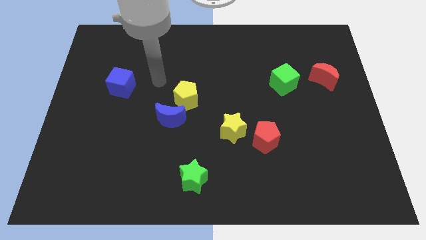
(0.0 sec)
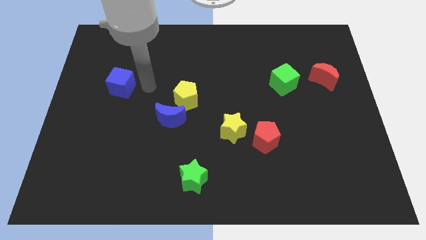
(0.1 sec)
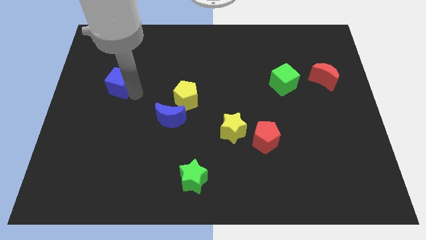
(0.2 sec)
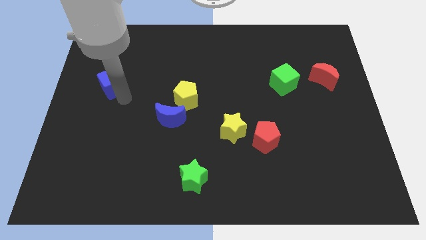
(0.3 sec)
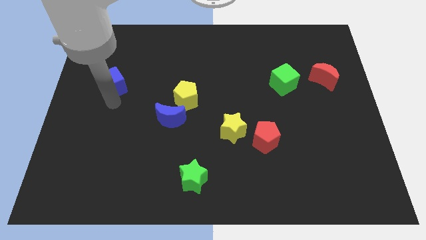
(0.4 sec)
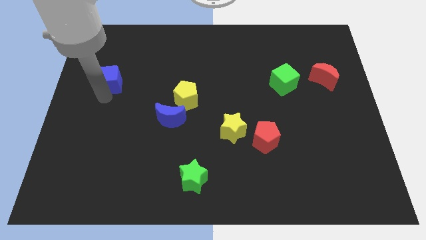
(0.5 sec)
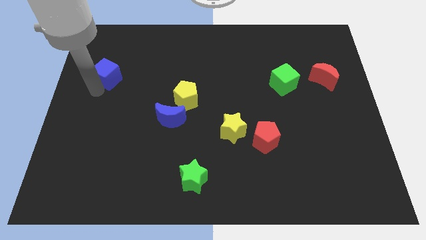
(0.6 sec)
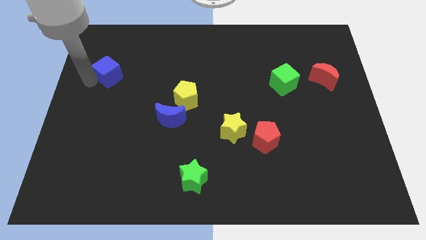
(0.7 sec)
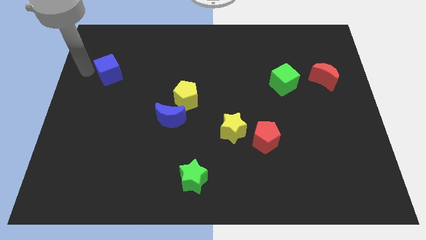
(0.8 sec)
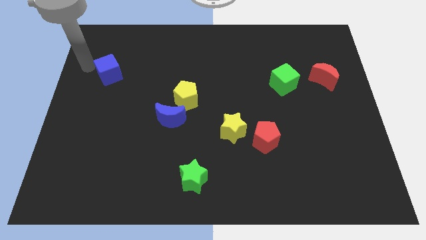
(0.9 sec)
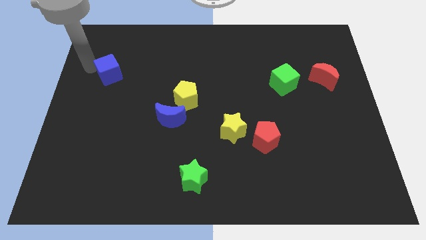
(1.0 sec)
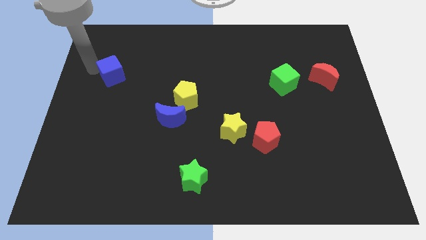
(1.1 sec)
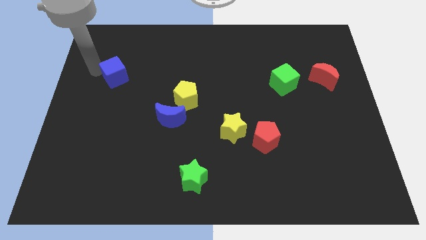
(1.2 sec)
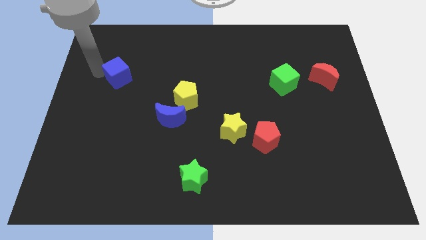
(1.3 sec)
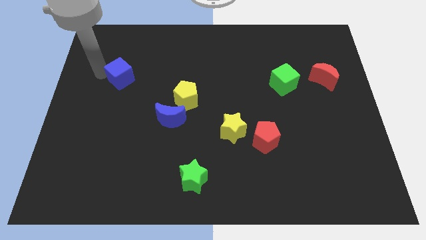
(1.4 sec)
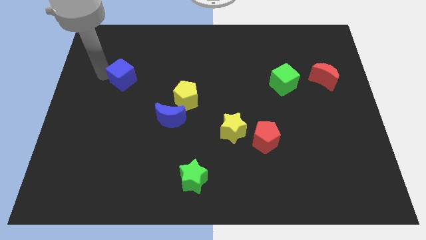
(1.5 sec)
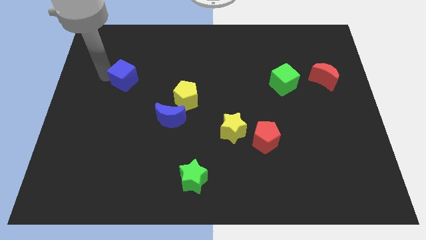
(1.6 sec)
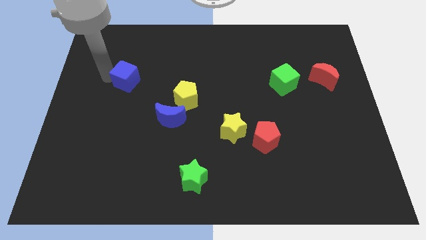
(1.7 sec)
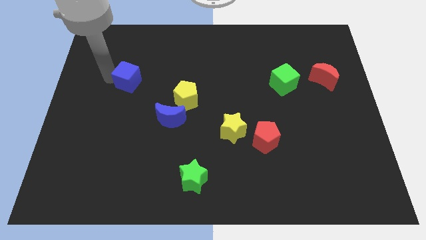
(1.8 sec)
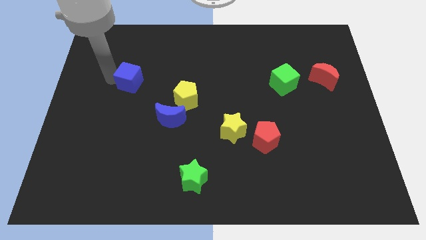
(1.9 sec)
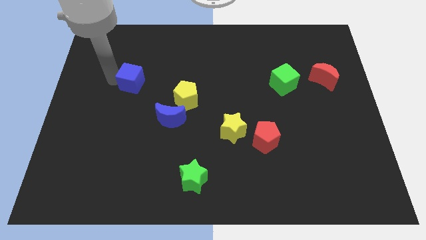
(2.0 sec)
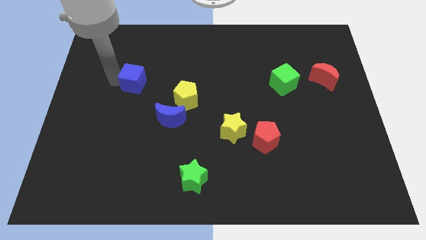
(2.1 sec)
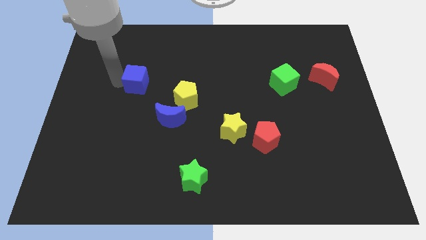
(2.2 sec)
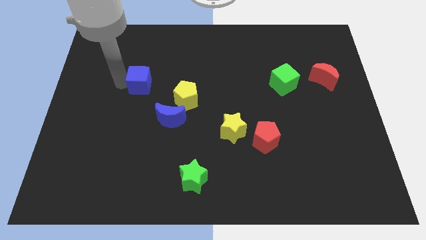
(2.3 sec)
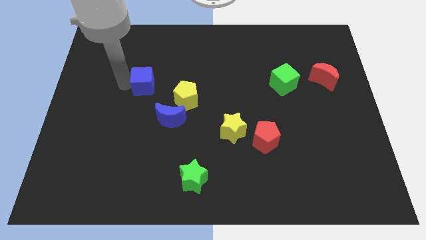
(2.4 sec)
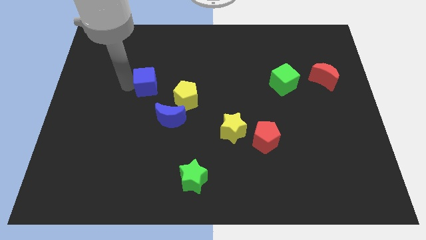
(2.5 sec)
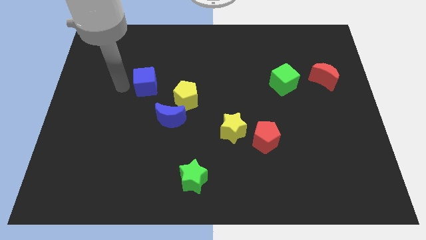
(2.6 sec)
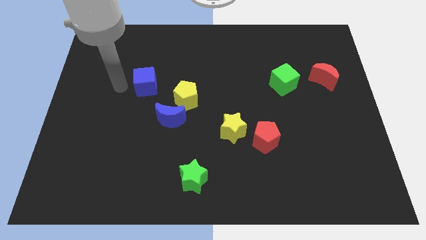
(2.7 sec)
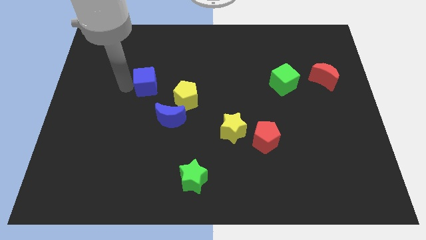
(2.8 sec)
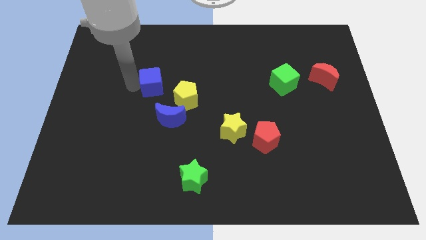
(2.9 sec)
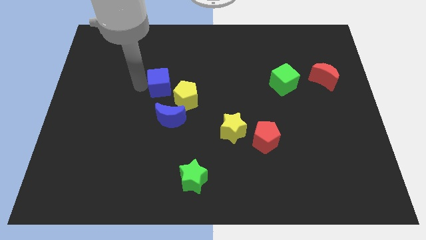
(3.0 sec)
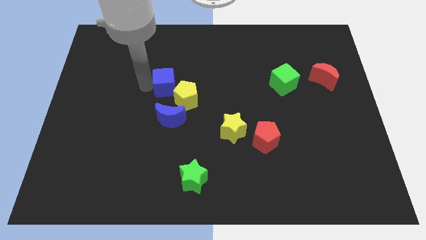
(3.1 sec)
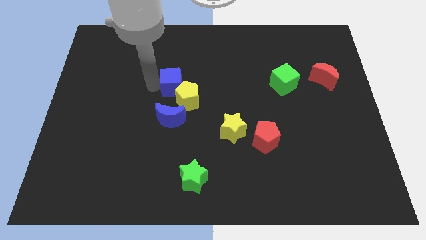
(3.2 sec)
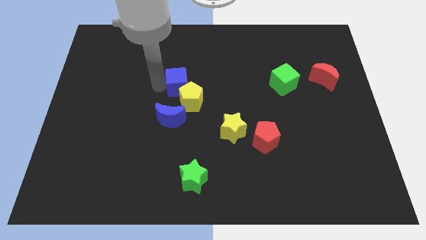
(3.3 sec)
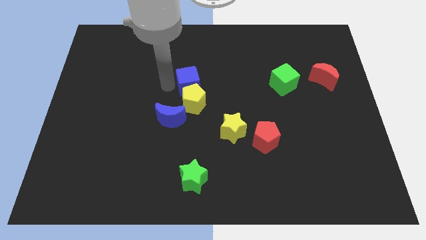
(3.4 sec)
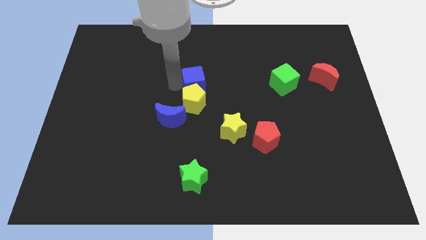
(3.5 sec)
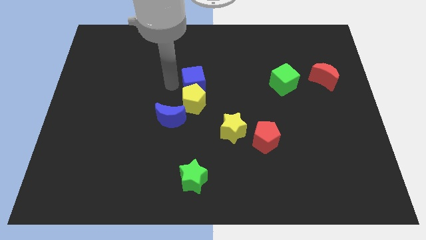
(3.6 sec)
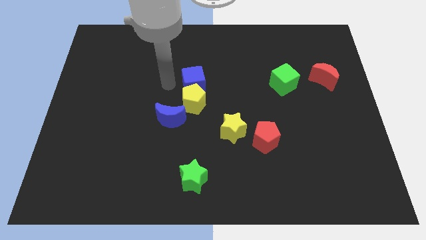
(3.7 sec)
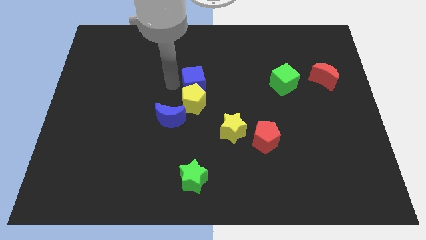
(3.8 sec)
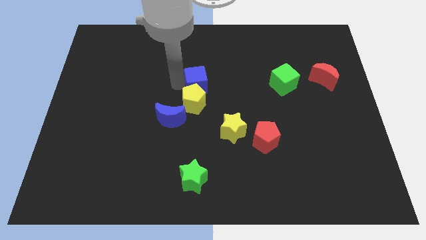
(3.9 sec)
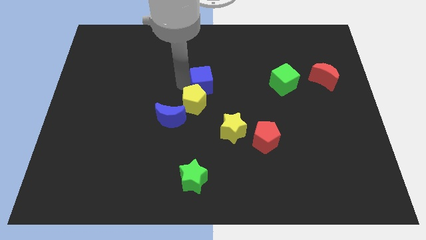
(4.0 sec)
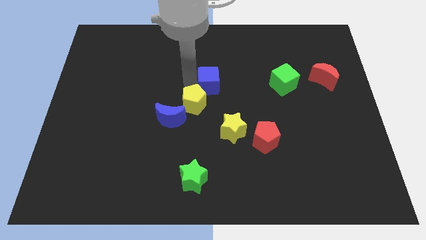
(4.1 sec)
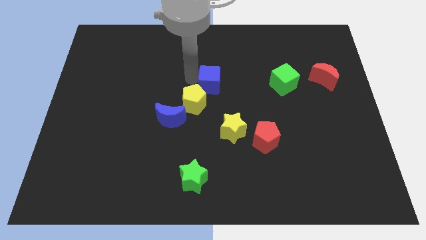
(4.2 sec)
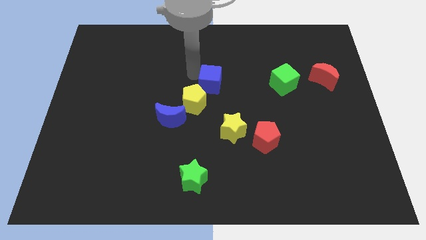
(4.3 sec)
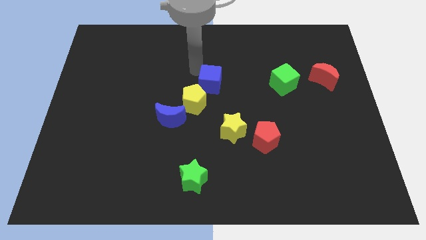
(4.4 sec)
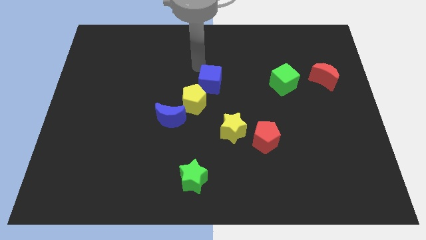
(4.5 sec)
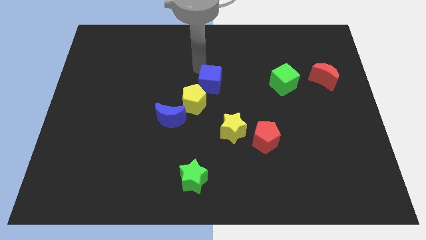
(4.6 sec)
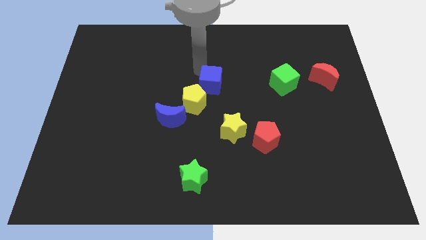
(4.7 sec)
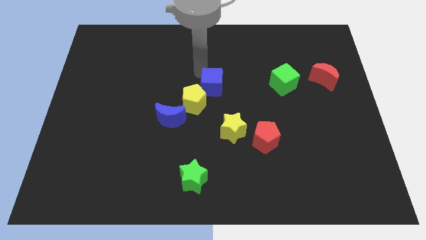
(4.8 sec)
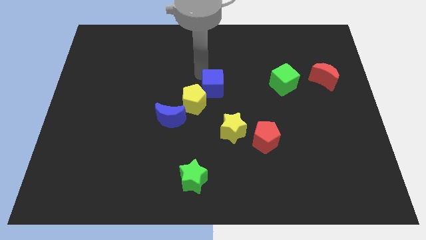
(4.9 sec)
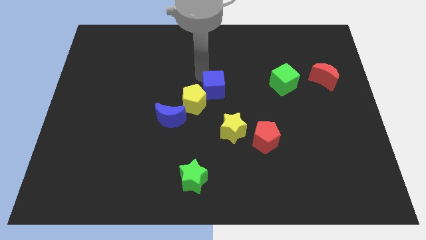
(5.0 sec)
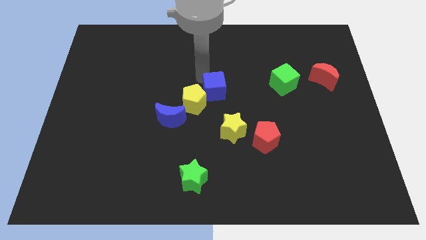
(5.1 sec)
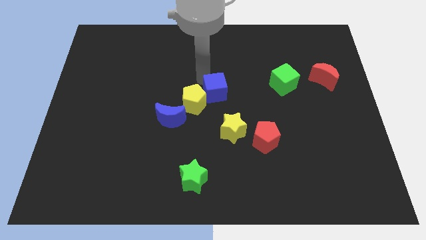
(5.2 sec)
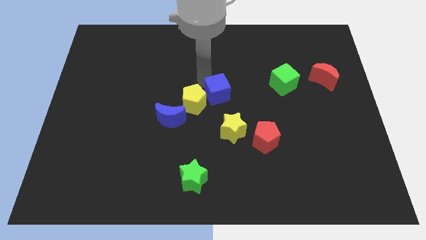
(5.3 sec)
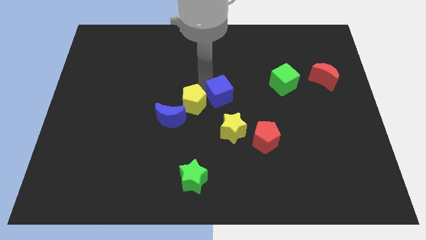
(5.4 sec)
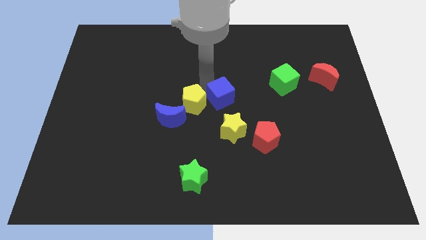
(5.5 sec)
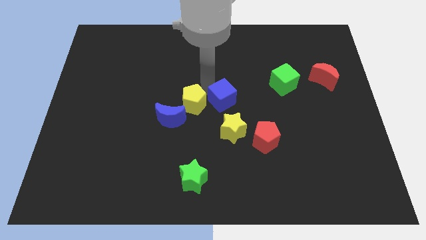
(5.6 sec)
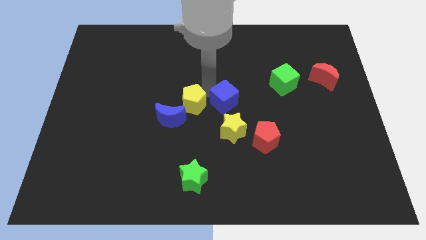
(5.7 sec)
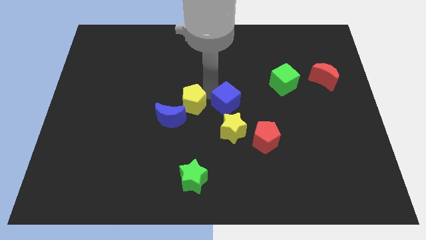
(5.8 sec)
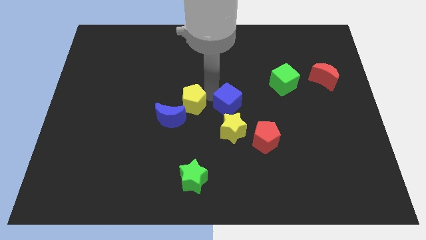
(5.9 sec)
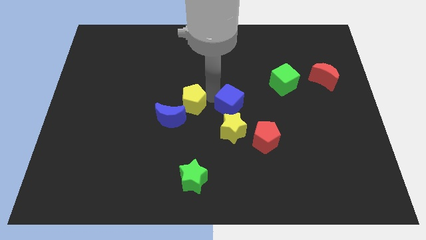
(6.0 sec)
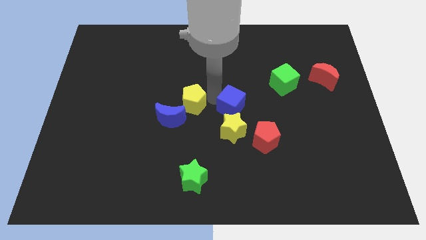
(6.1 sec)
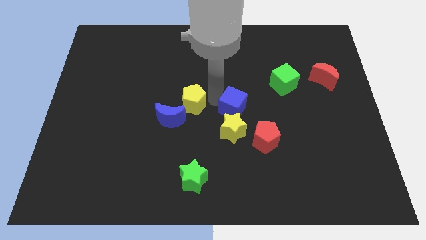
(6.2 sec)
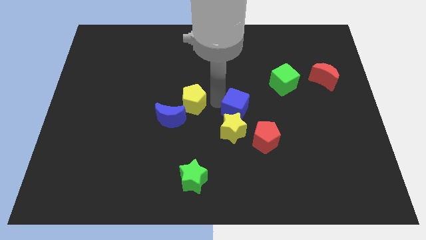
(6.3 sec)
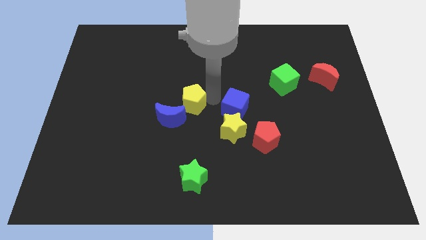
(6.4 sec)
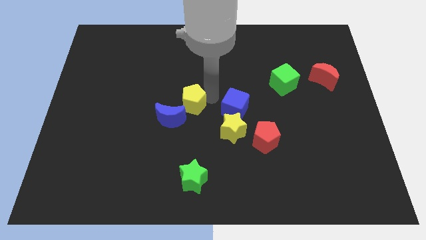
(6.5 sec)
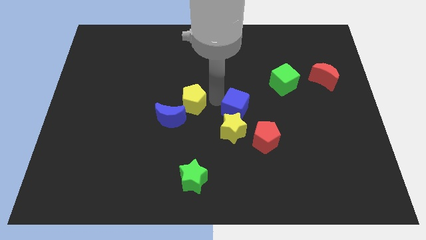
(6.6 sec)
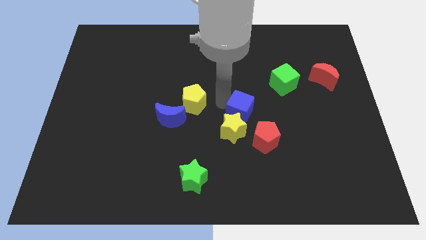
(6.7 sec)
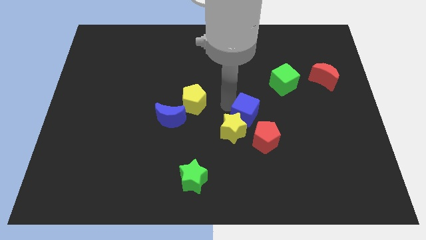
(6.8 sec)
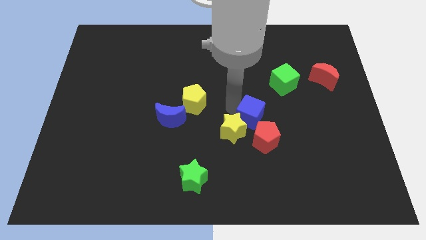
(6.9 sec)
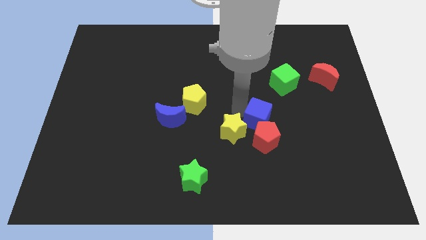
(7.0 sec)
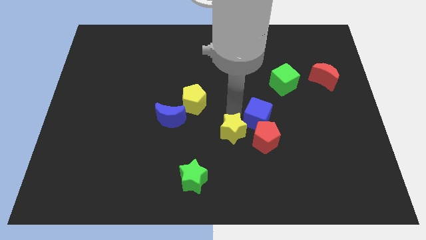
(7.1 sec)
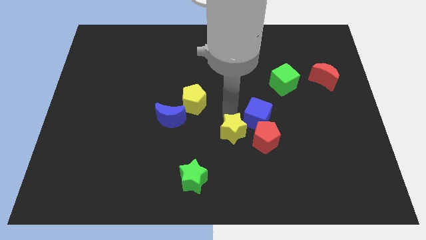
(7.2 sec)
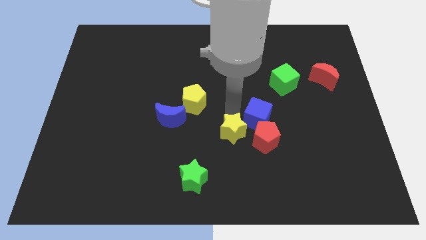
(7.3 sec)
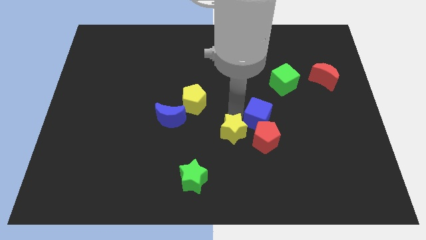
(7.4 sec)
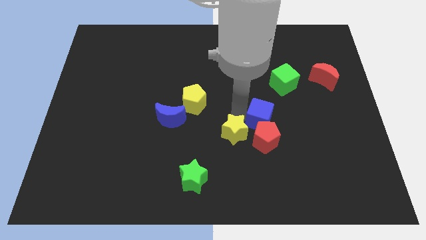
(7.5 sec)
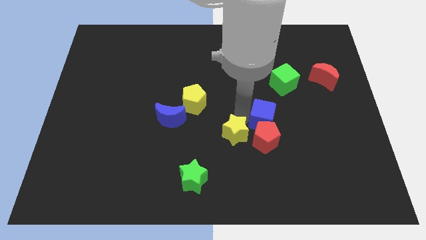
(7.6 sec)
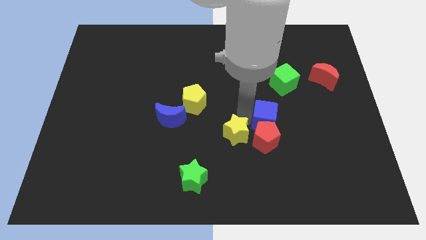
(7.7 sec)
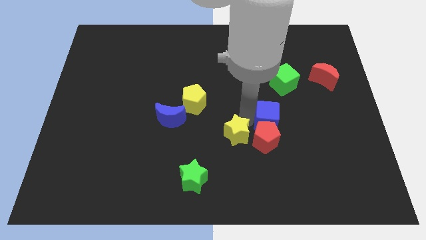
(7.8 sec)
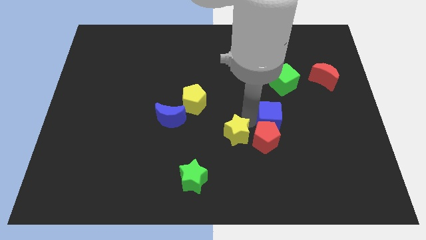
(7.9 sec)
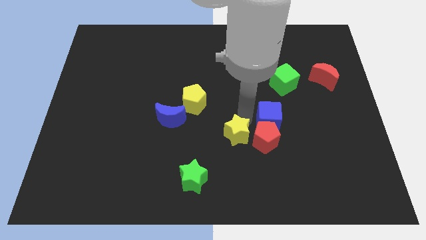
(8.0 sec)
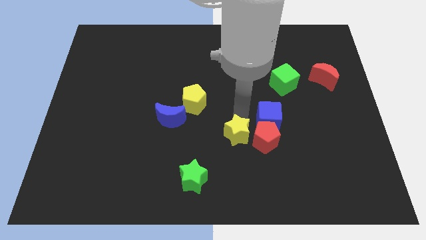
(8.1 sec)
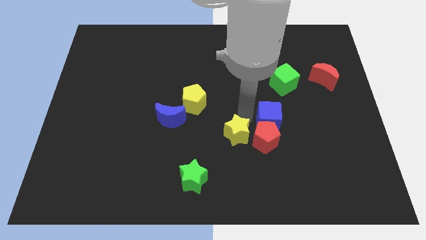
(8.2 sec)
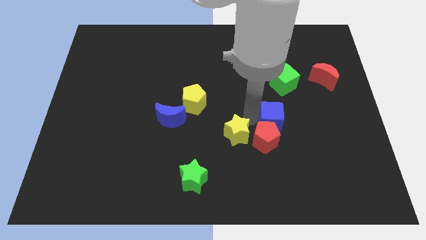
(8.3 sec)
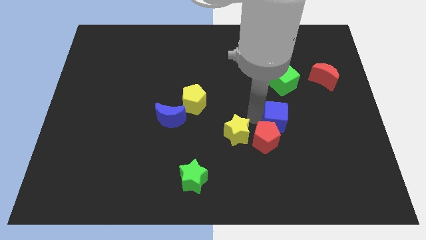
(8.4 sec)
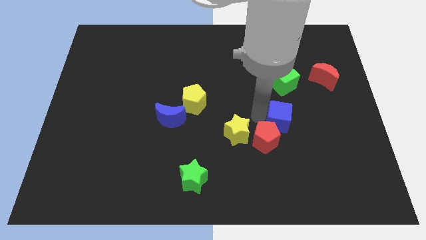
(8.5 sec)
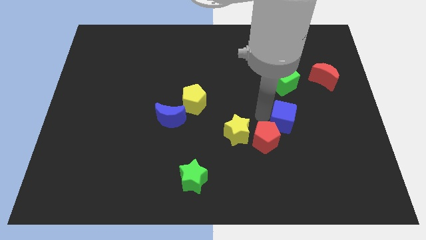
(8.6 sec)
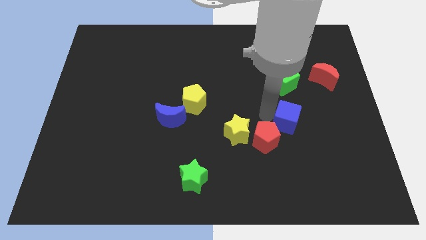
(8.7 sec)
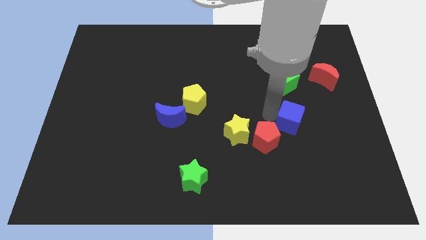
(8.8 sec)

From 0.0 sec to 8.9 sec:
push the blue cube just right of the red pentagon
